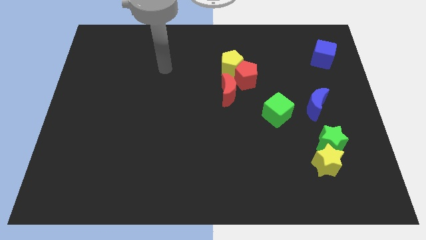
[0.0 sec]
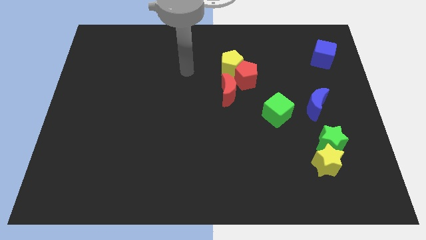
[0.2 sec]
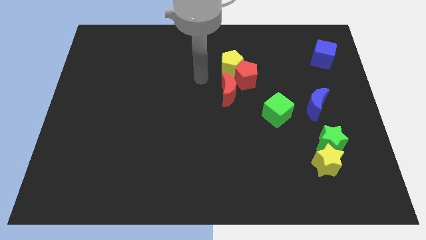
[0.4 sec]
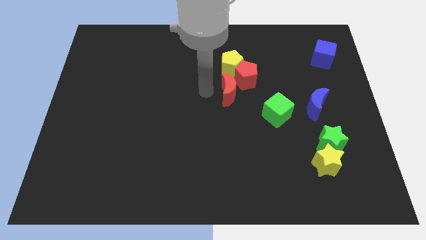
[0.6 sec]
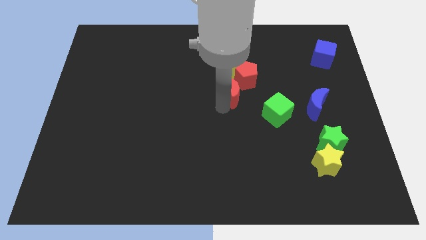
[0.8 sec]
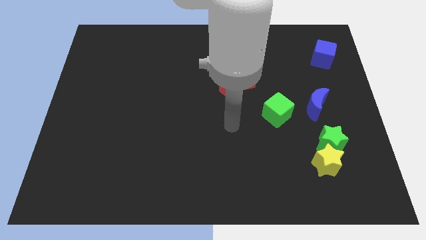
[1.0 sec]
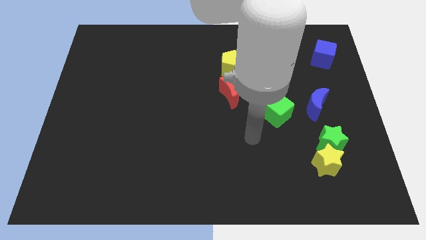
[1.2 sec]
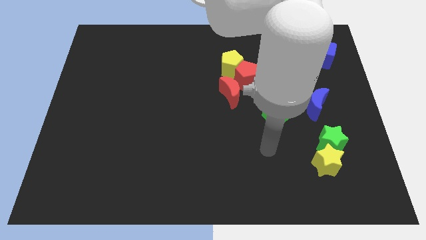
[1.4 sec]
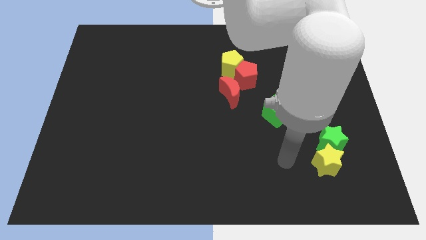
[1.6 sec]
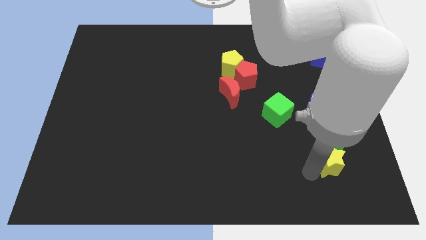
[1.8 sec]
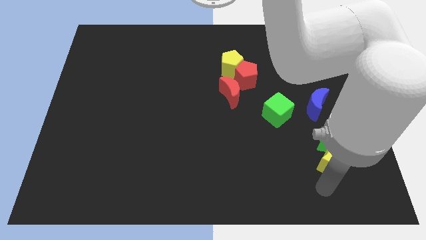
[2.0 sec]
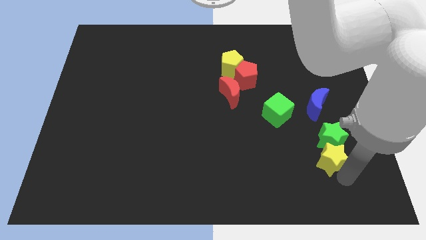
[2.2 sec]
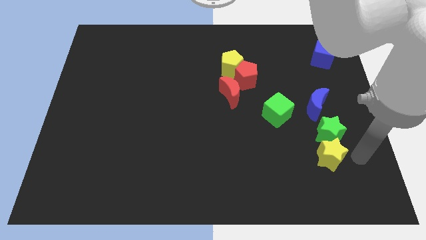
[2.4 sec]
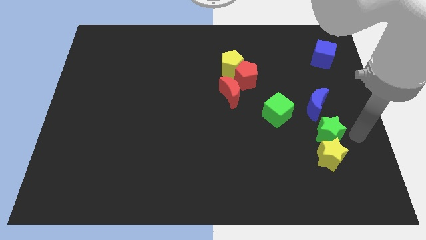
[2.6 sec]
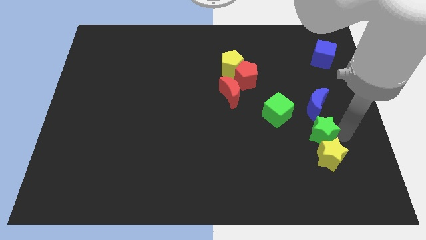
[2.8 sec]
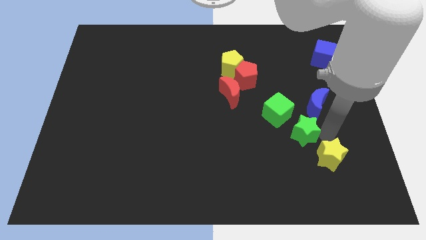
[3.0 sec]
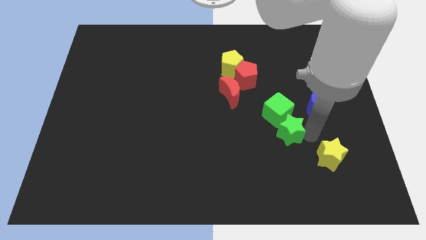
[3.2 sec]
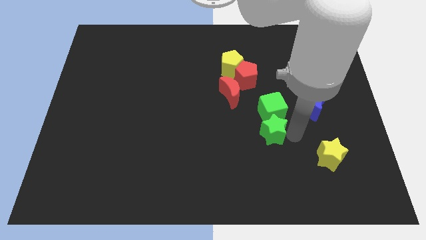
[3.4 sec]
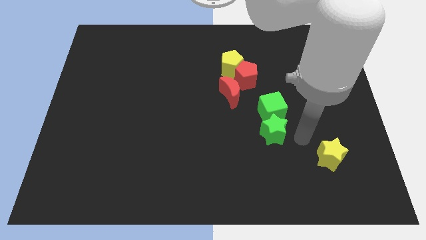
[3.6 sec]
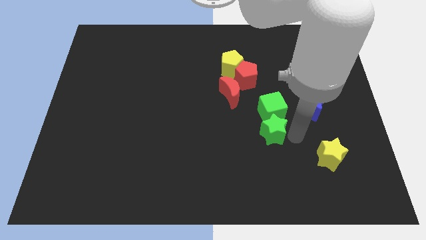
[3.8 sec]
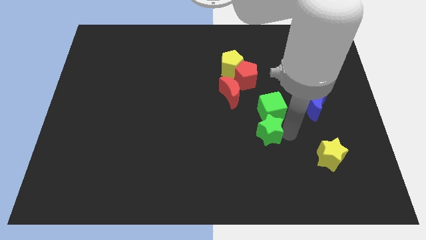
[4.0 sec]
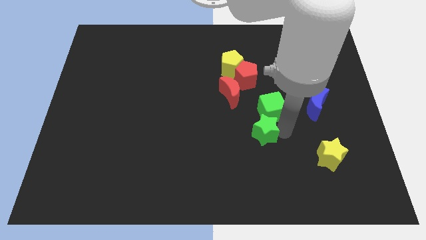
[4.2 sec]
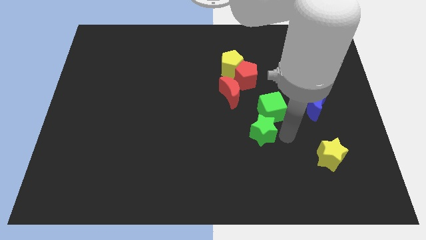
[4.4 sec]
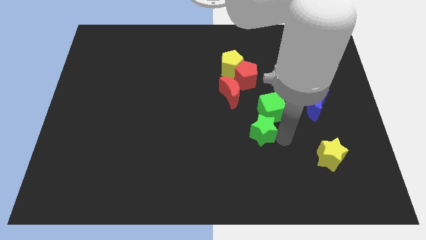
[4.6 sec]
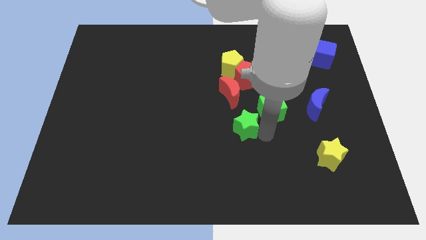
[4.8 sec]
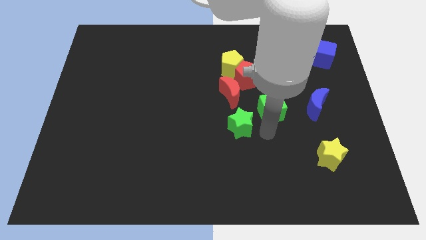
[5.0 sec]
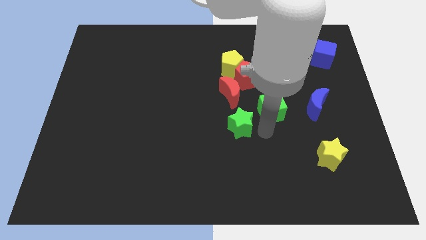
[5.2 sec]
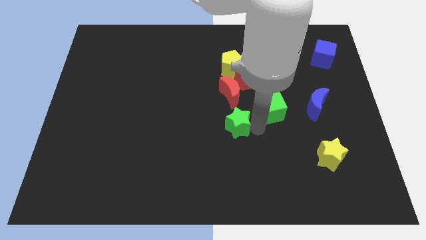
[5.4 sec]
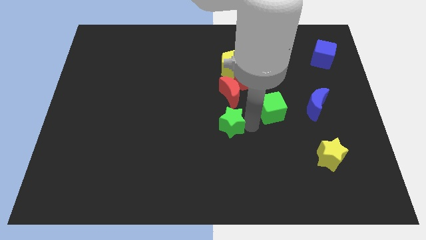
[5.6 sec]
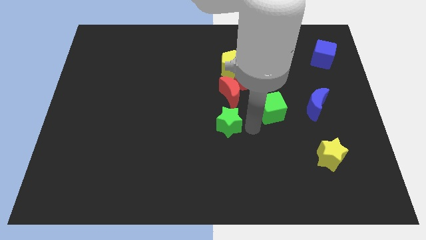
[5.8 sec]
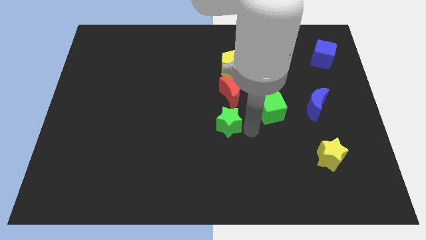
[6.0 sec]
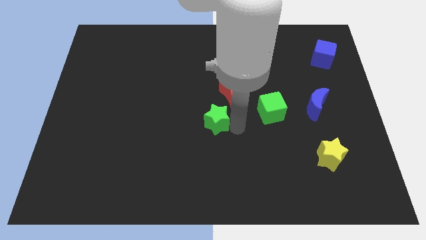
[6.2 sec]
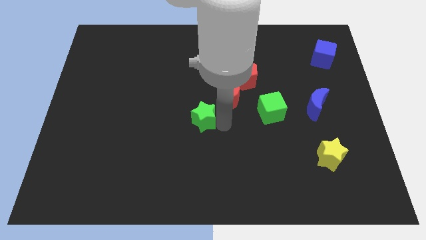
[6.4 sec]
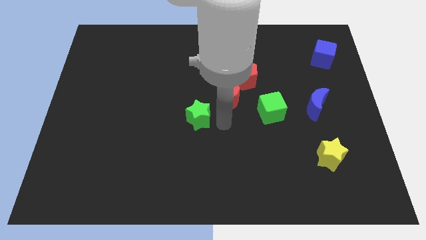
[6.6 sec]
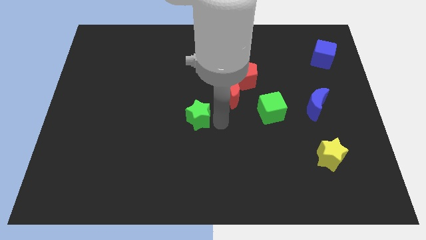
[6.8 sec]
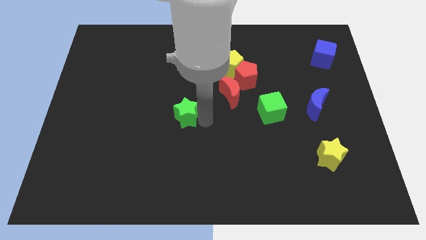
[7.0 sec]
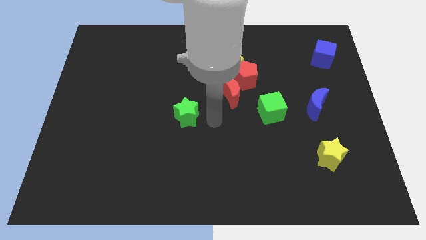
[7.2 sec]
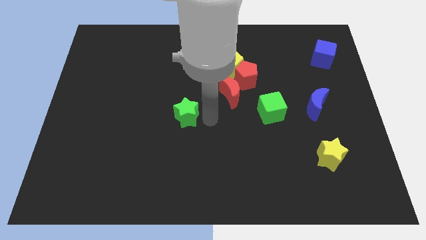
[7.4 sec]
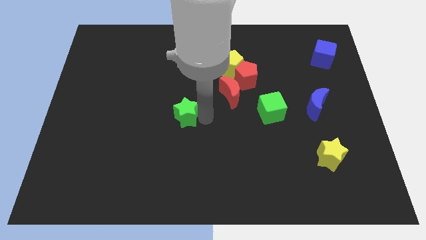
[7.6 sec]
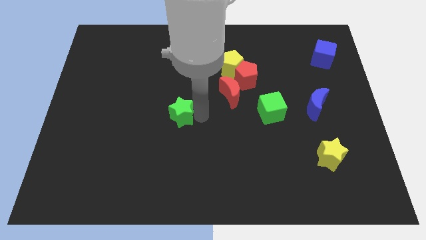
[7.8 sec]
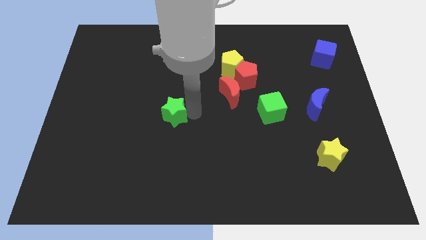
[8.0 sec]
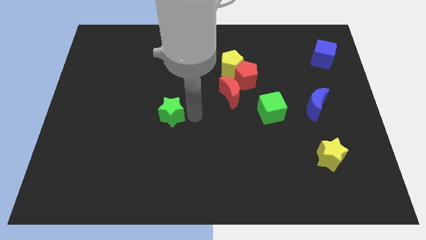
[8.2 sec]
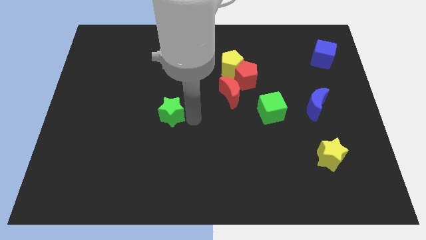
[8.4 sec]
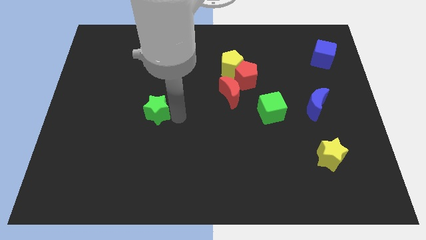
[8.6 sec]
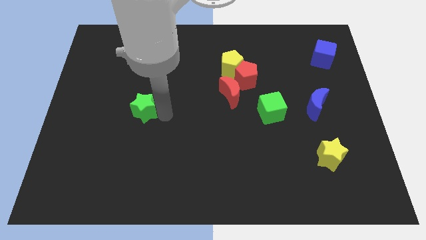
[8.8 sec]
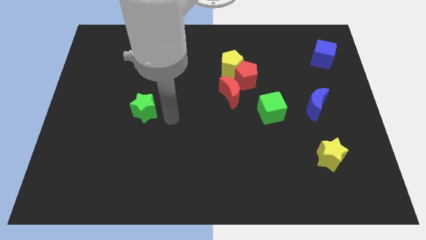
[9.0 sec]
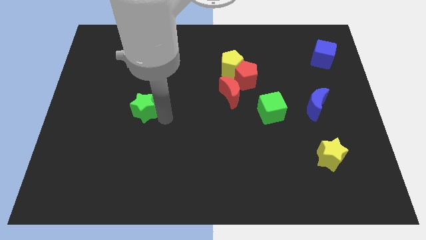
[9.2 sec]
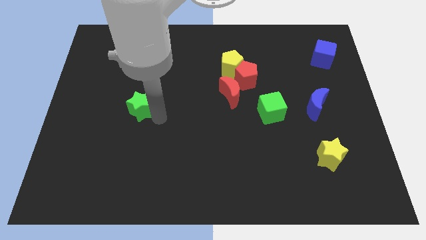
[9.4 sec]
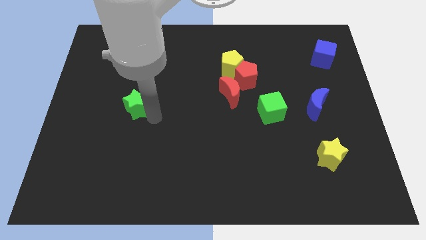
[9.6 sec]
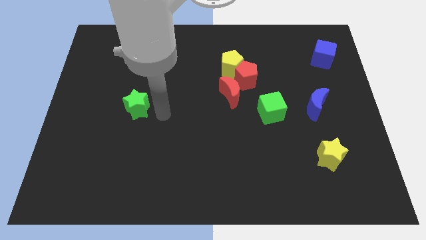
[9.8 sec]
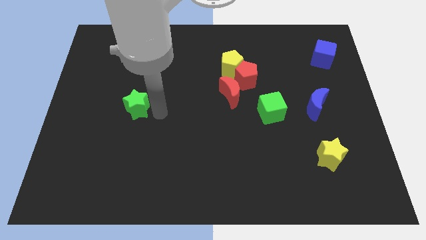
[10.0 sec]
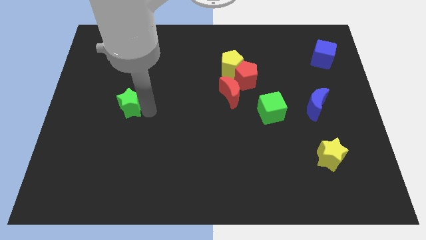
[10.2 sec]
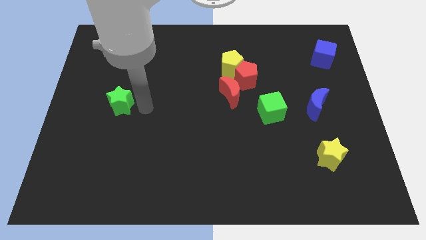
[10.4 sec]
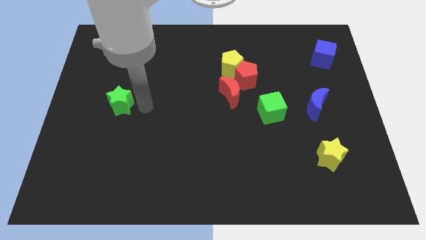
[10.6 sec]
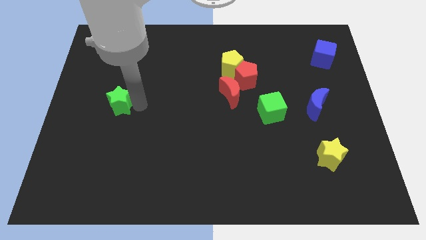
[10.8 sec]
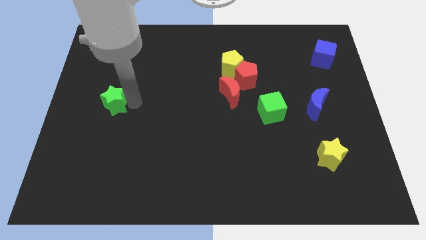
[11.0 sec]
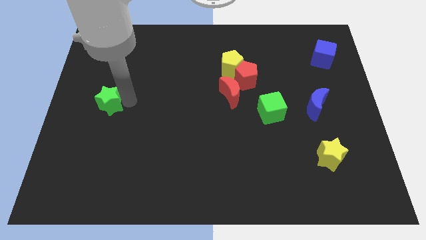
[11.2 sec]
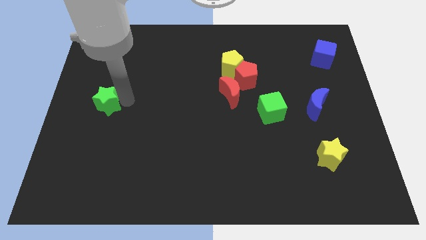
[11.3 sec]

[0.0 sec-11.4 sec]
put the green star to the left side

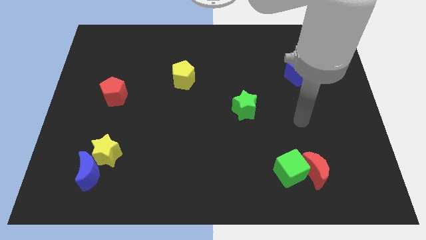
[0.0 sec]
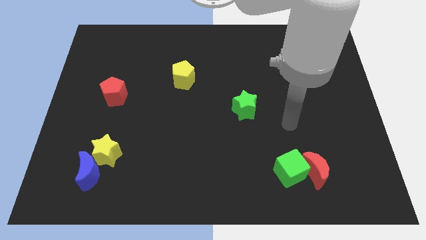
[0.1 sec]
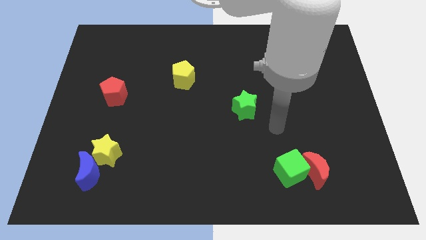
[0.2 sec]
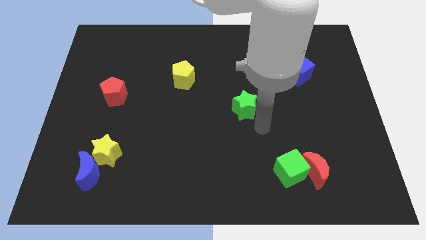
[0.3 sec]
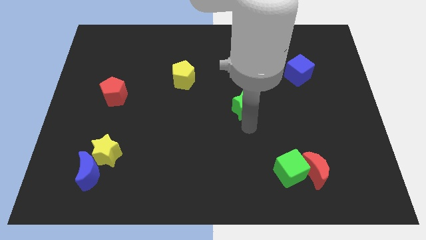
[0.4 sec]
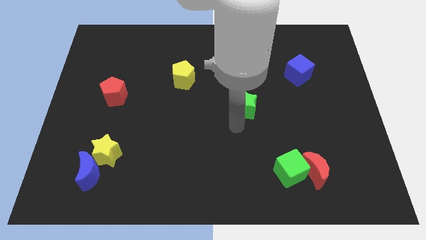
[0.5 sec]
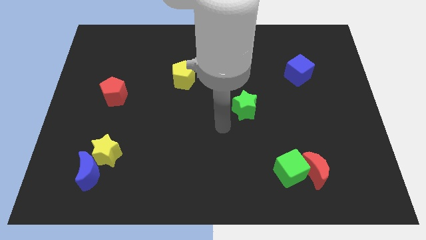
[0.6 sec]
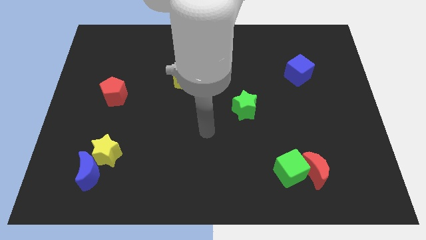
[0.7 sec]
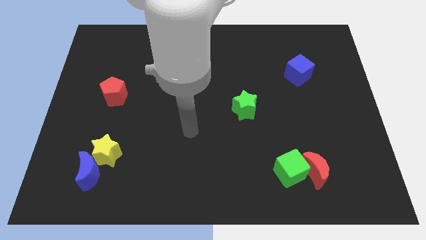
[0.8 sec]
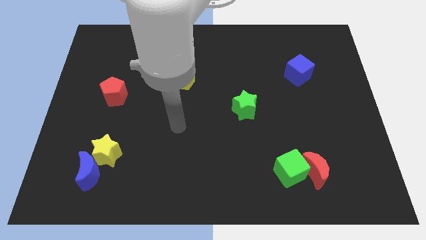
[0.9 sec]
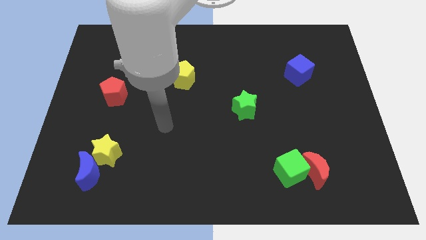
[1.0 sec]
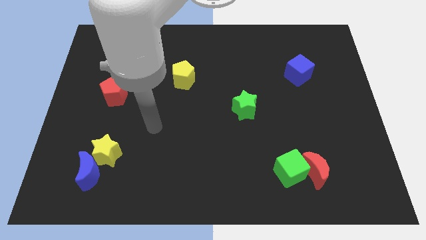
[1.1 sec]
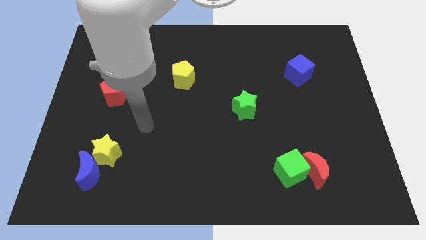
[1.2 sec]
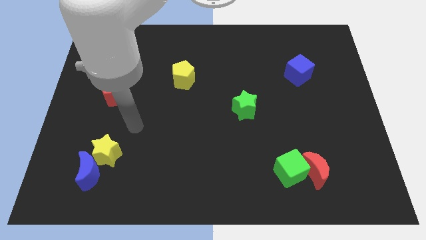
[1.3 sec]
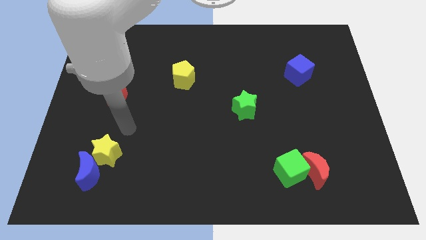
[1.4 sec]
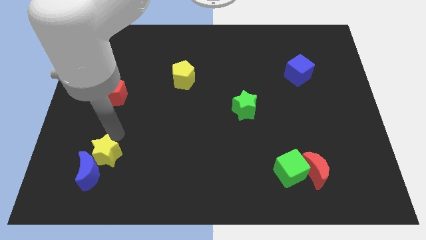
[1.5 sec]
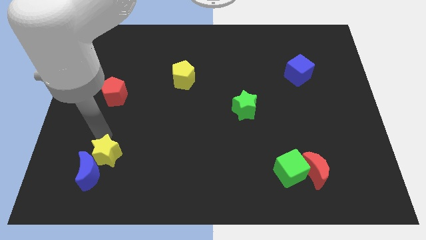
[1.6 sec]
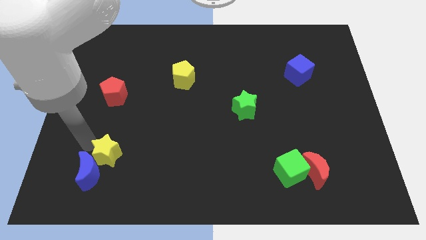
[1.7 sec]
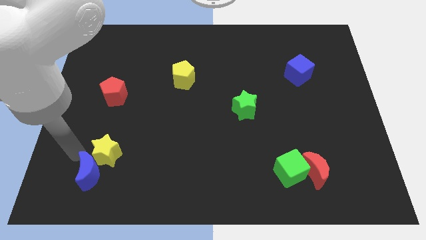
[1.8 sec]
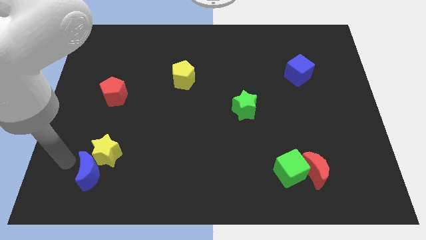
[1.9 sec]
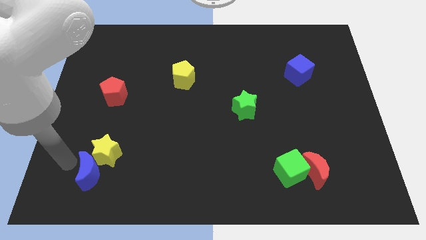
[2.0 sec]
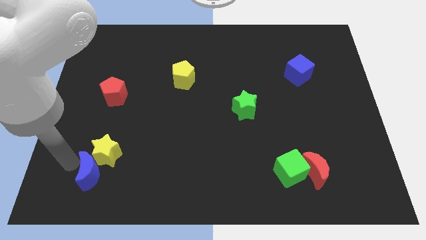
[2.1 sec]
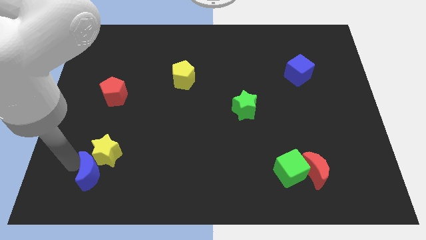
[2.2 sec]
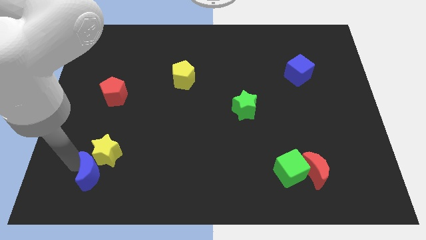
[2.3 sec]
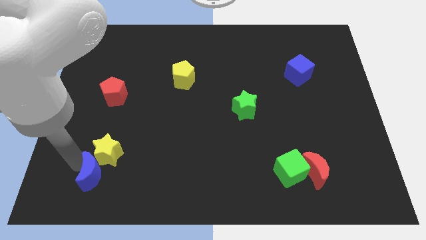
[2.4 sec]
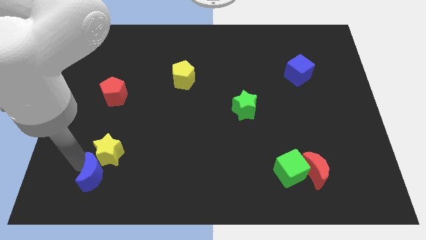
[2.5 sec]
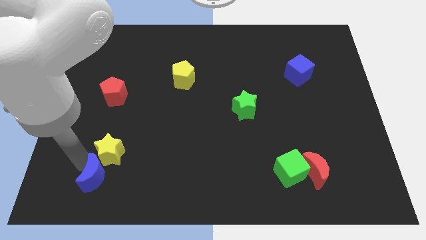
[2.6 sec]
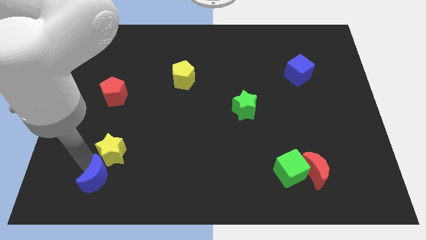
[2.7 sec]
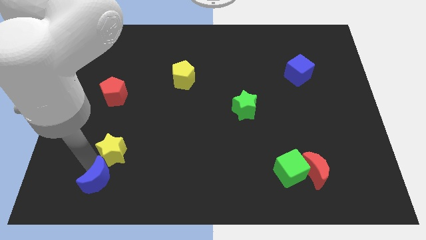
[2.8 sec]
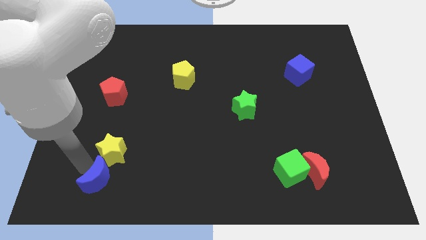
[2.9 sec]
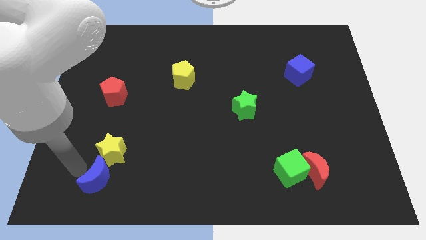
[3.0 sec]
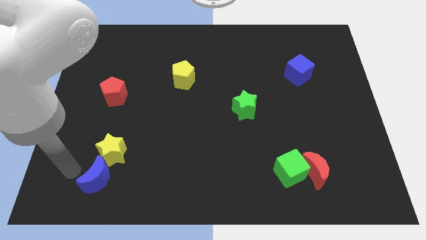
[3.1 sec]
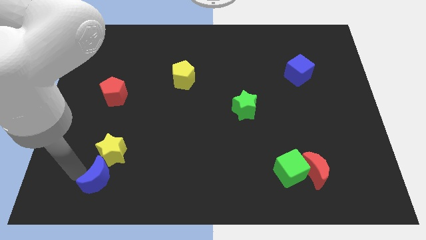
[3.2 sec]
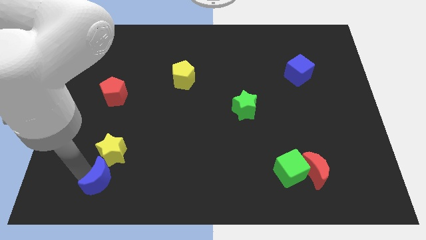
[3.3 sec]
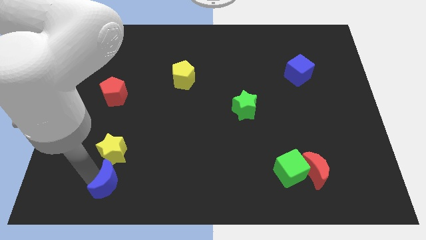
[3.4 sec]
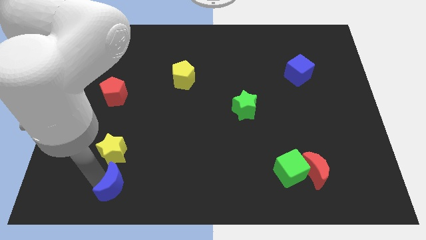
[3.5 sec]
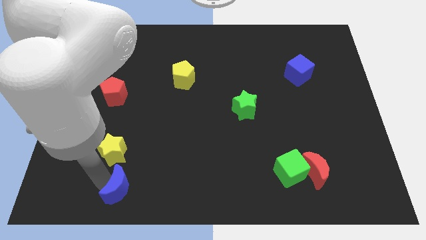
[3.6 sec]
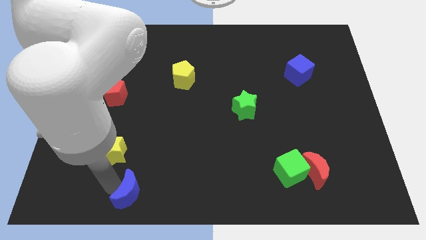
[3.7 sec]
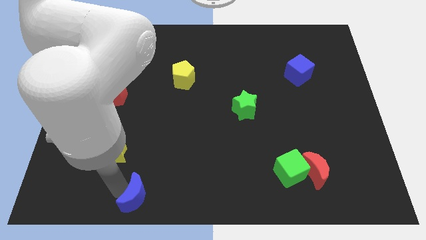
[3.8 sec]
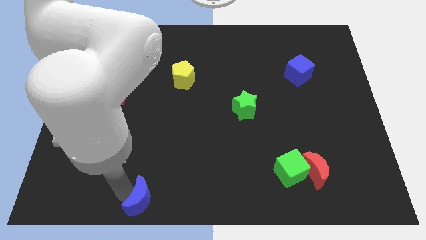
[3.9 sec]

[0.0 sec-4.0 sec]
move the blue moon to the bottom
